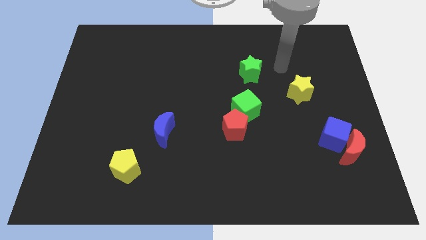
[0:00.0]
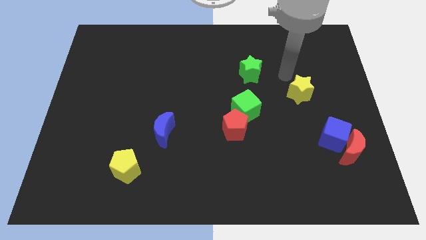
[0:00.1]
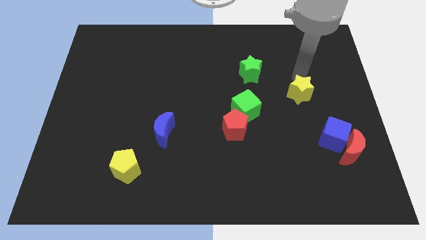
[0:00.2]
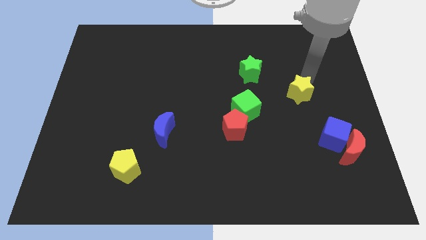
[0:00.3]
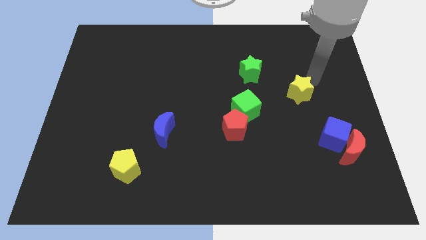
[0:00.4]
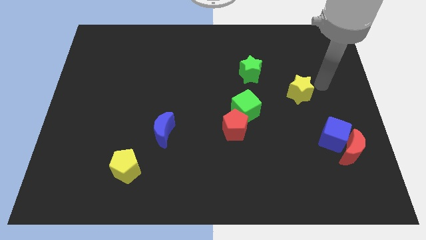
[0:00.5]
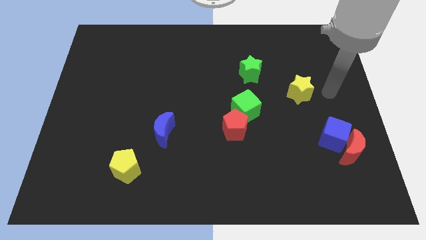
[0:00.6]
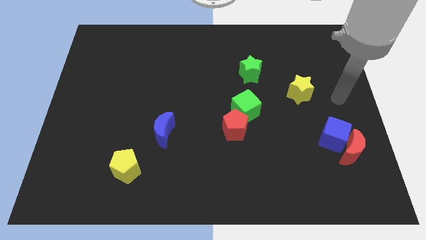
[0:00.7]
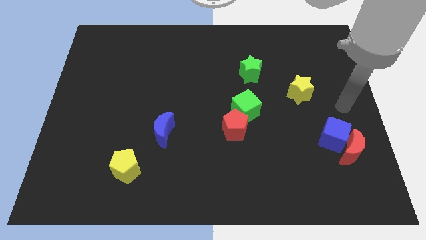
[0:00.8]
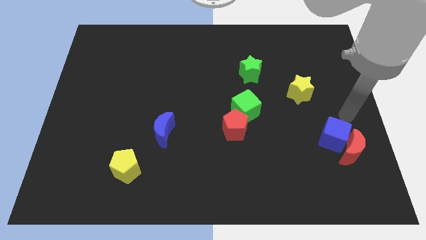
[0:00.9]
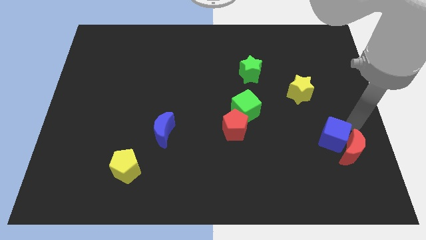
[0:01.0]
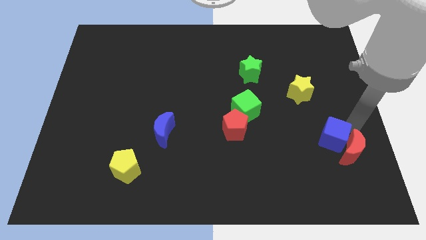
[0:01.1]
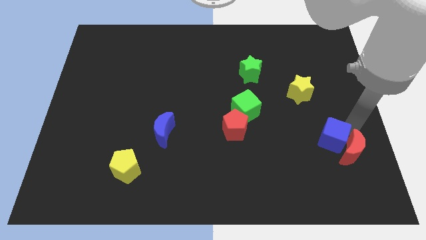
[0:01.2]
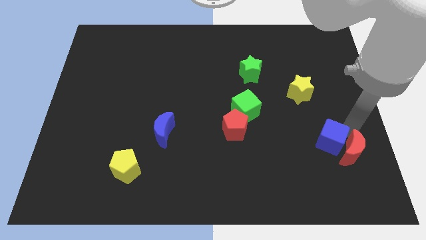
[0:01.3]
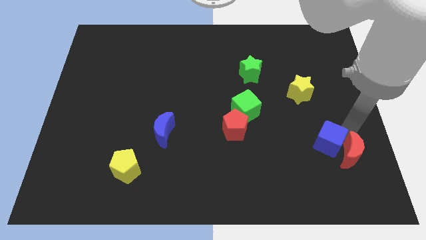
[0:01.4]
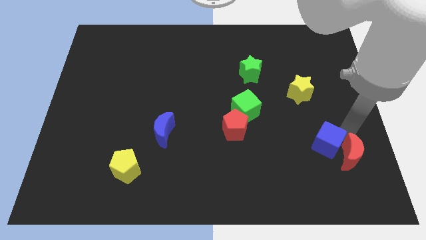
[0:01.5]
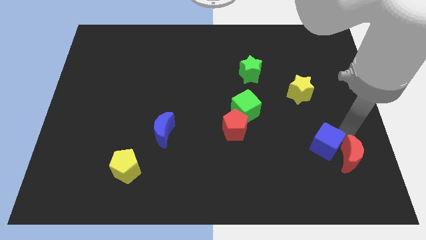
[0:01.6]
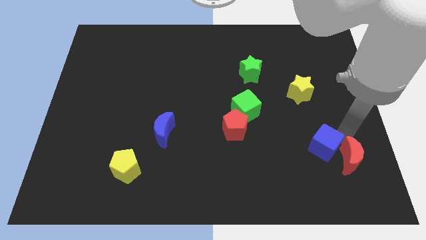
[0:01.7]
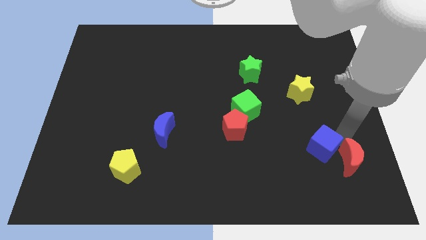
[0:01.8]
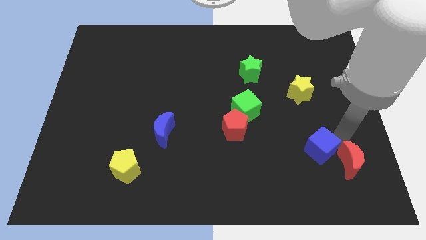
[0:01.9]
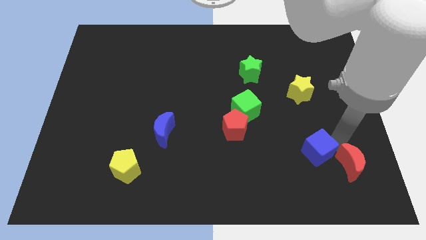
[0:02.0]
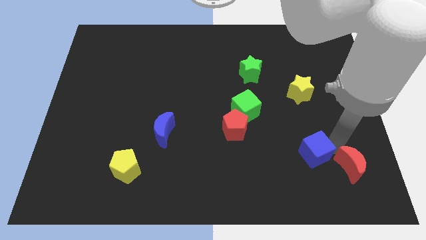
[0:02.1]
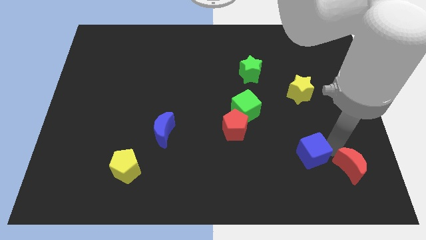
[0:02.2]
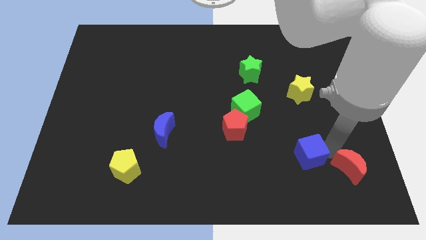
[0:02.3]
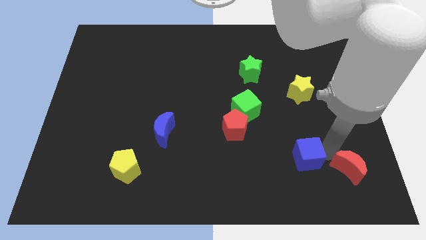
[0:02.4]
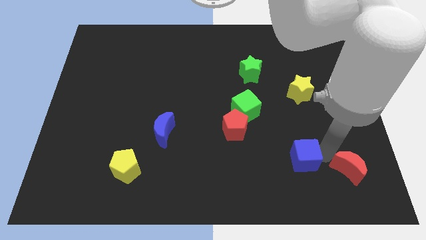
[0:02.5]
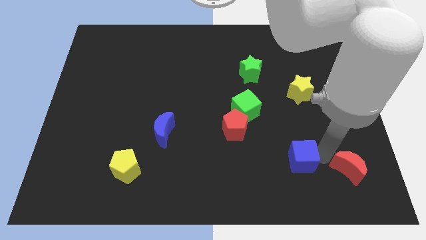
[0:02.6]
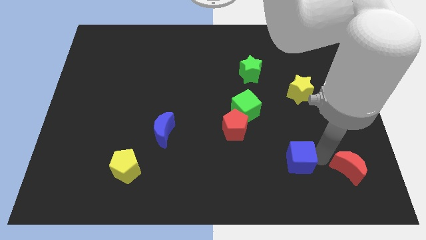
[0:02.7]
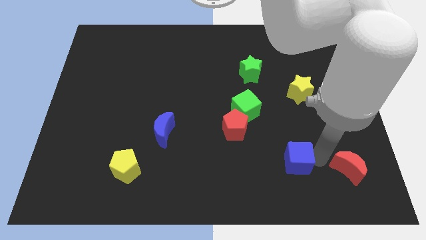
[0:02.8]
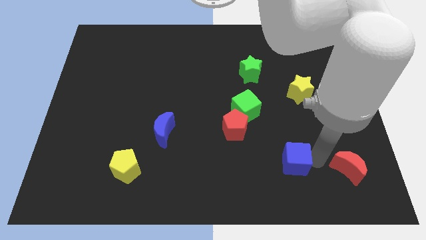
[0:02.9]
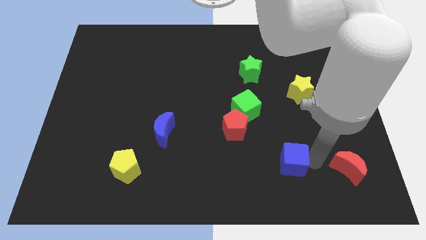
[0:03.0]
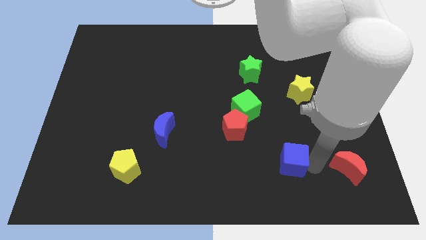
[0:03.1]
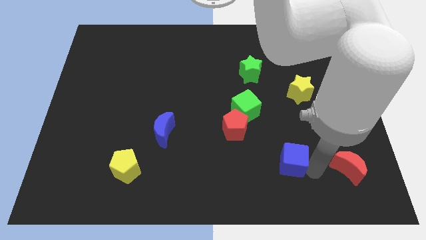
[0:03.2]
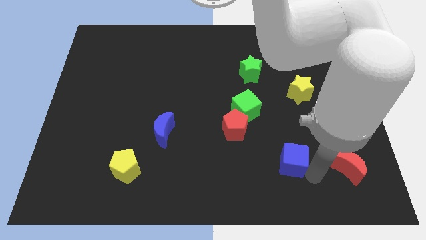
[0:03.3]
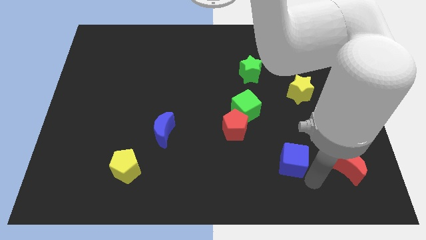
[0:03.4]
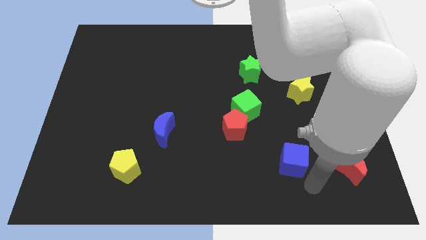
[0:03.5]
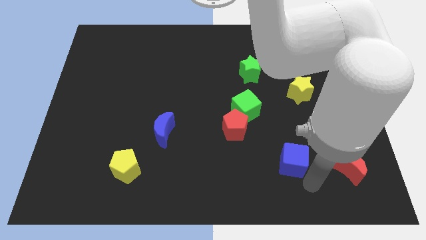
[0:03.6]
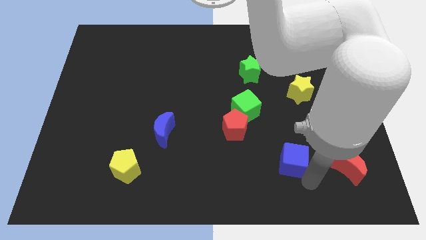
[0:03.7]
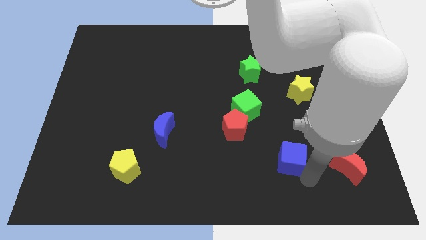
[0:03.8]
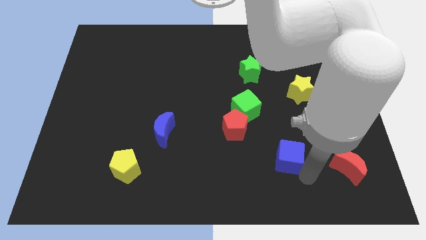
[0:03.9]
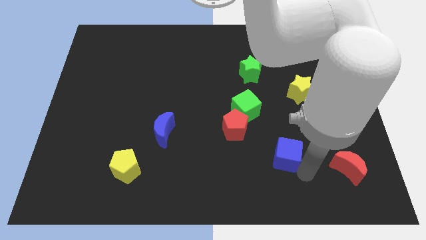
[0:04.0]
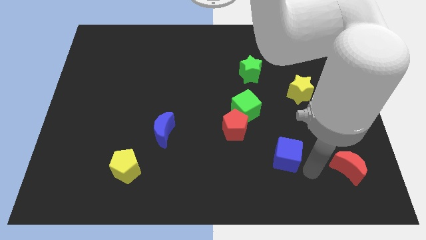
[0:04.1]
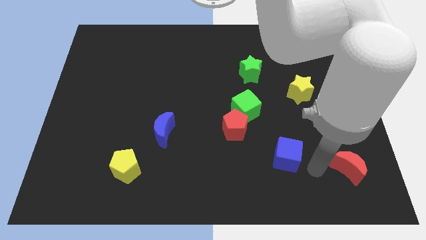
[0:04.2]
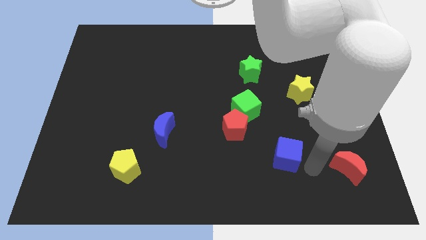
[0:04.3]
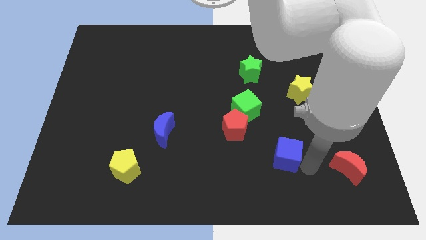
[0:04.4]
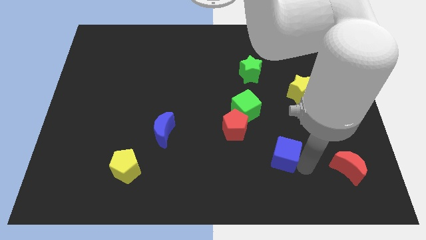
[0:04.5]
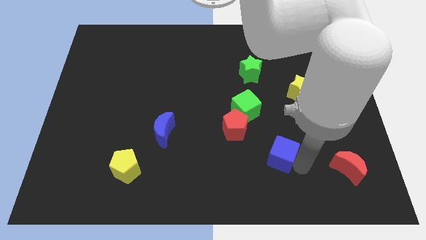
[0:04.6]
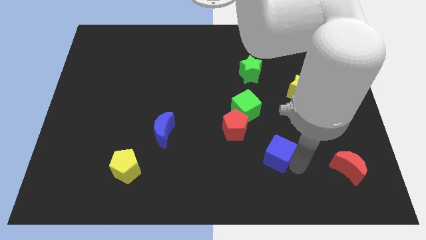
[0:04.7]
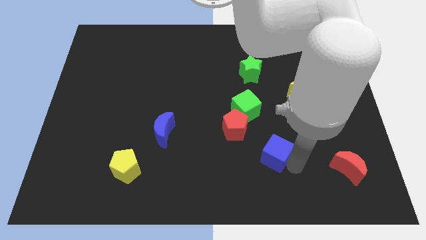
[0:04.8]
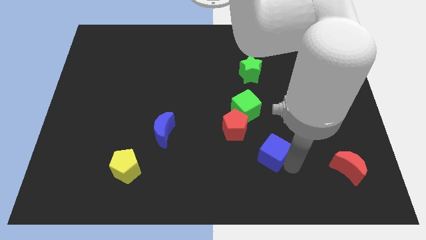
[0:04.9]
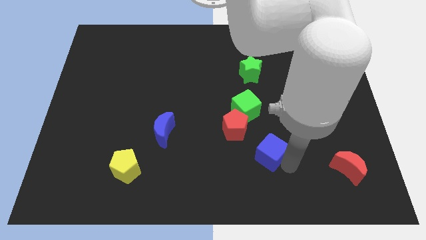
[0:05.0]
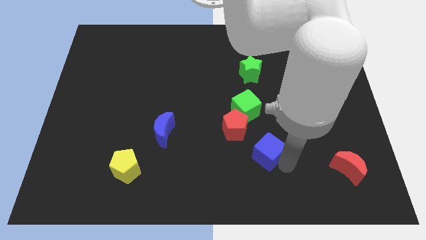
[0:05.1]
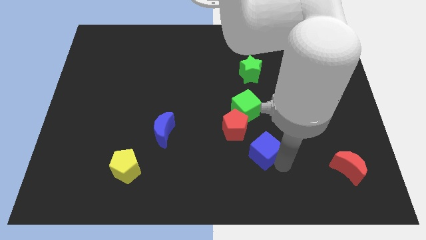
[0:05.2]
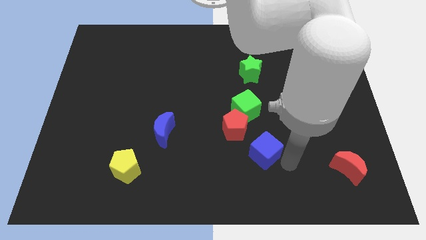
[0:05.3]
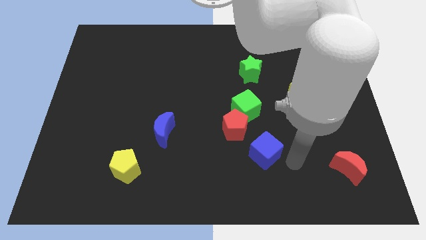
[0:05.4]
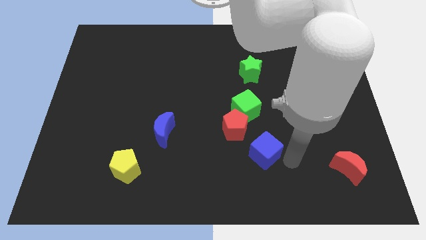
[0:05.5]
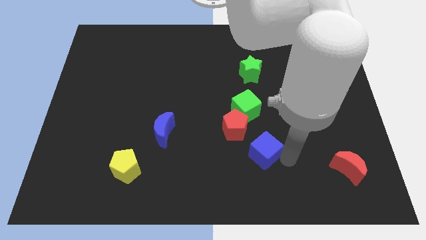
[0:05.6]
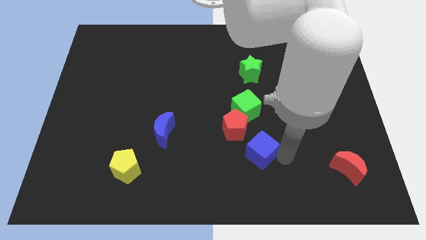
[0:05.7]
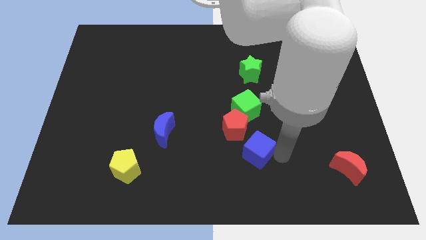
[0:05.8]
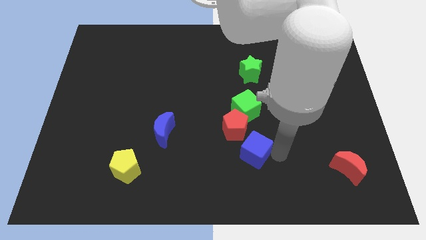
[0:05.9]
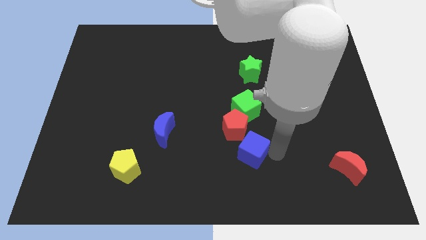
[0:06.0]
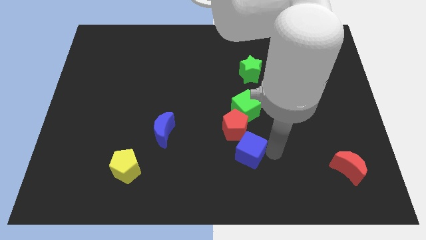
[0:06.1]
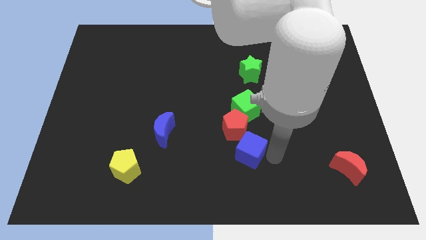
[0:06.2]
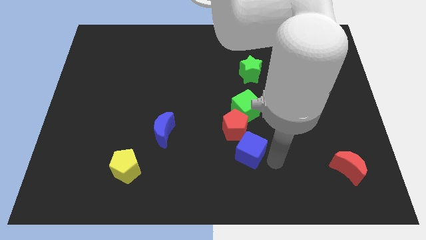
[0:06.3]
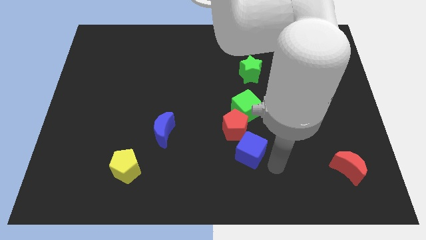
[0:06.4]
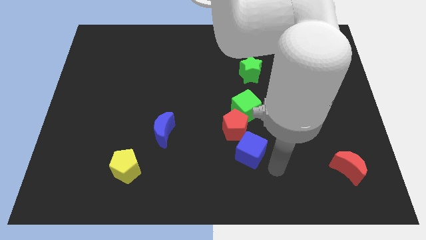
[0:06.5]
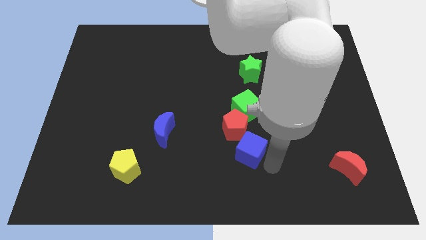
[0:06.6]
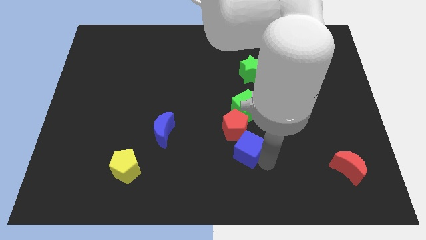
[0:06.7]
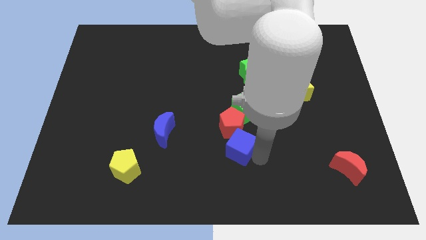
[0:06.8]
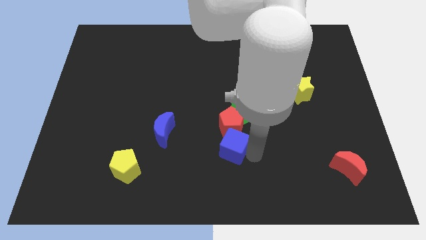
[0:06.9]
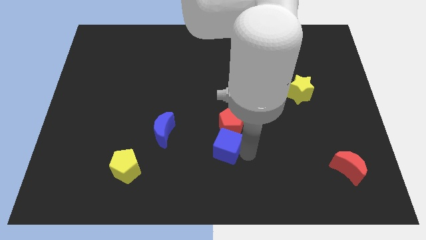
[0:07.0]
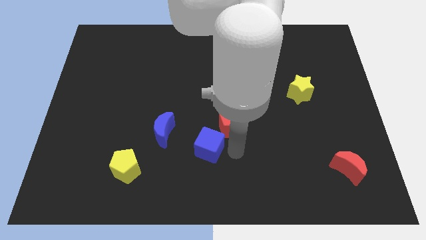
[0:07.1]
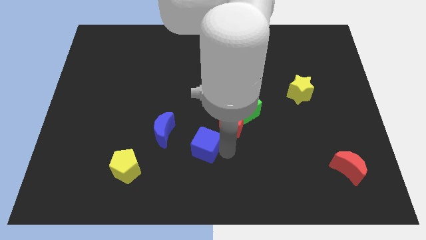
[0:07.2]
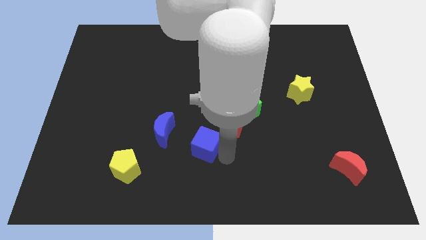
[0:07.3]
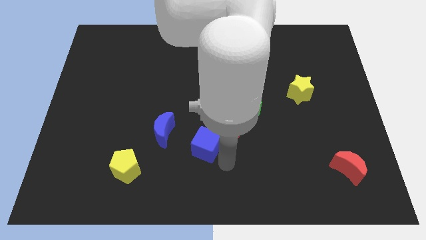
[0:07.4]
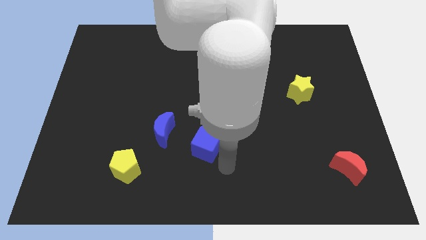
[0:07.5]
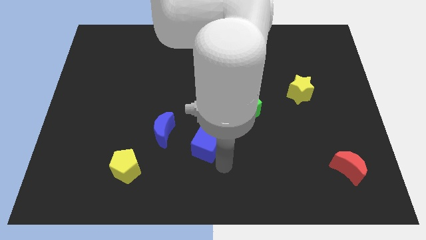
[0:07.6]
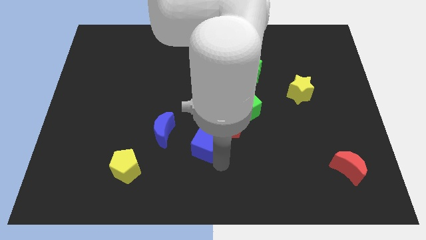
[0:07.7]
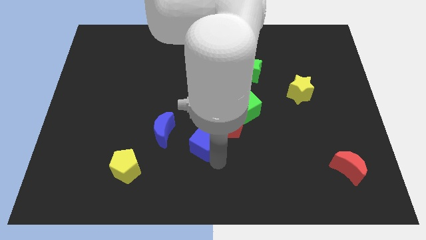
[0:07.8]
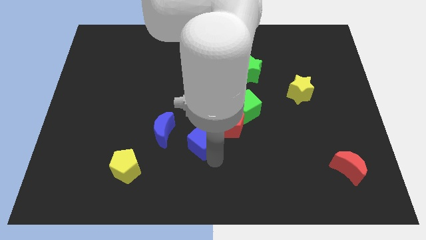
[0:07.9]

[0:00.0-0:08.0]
push the blue cube to the left side of the red pentagon
